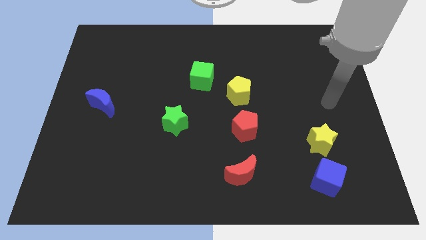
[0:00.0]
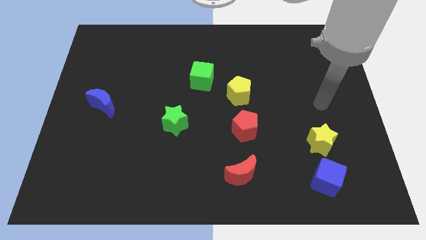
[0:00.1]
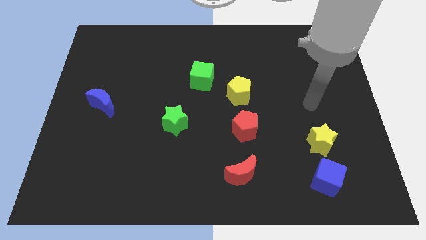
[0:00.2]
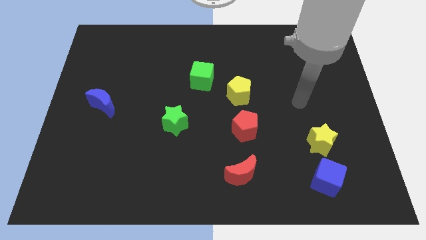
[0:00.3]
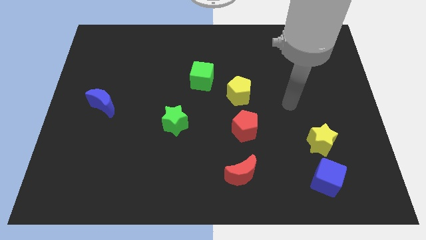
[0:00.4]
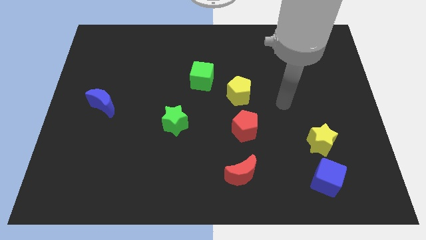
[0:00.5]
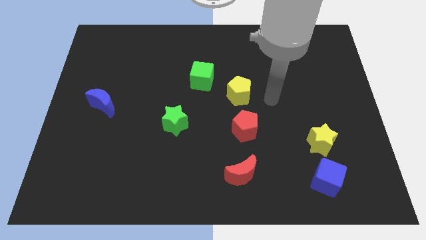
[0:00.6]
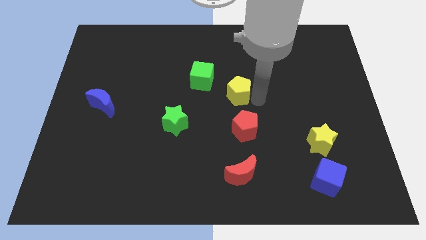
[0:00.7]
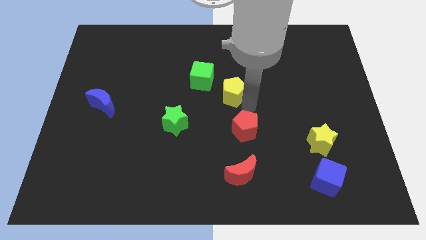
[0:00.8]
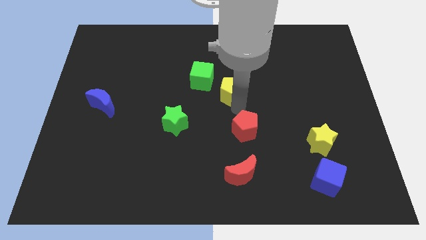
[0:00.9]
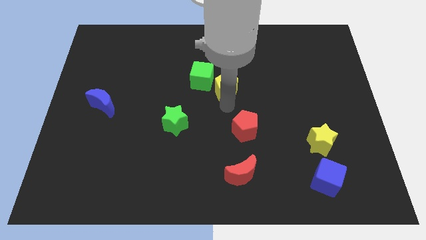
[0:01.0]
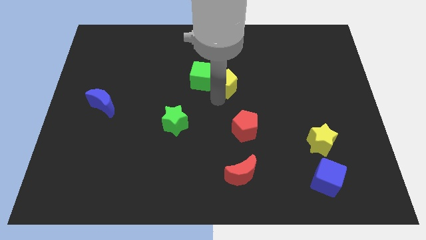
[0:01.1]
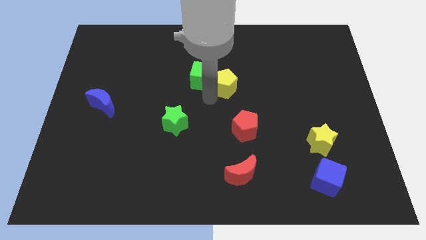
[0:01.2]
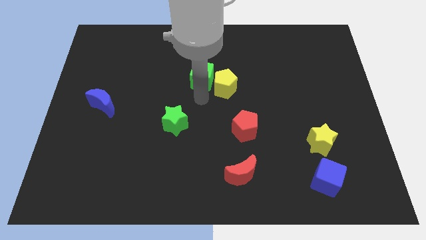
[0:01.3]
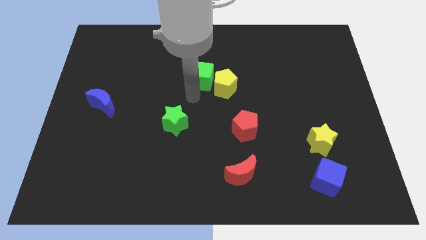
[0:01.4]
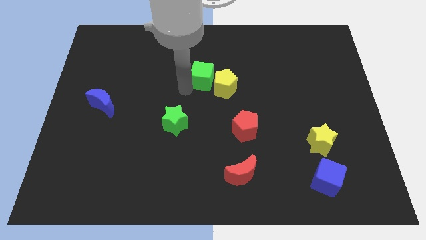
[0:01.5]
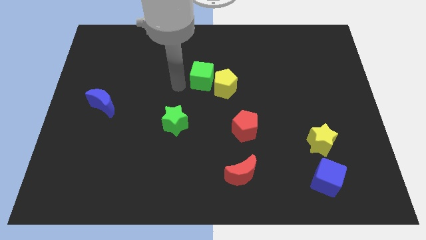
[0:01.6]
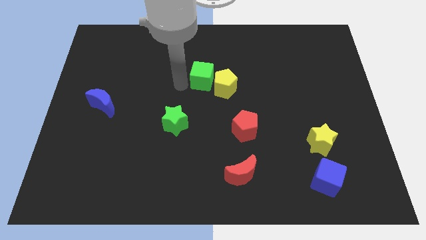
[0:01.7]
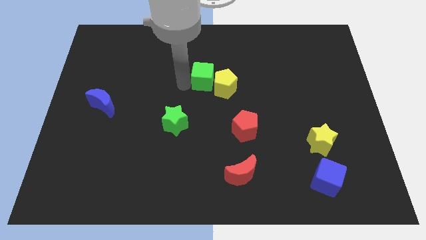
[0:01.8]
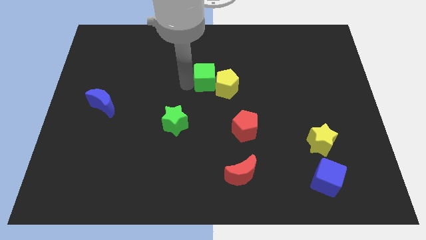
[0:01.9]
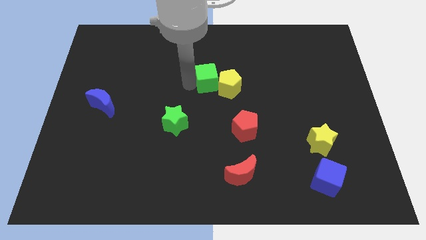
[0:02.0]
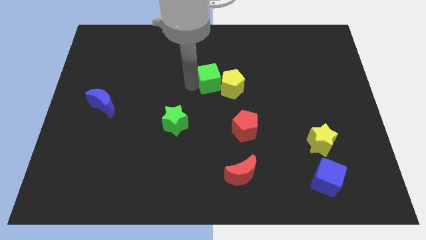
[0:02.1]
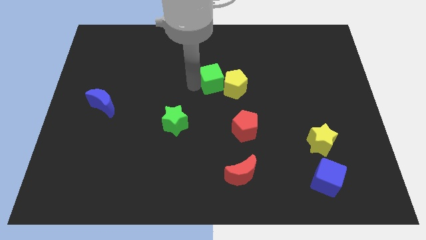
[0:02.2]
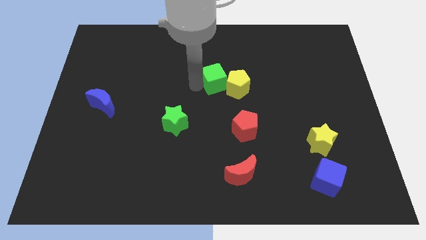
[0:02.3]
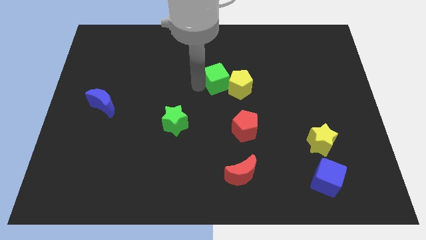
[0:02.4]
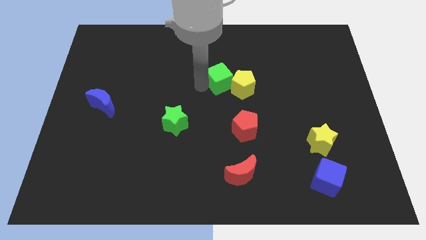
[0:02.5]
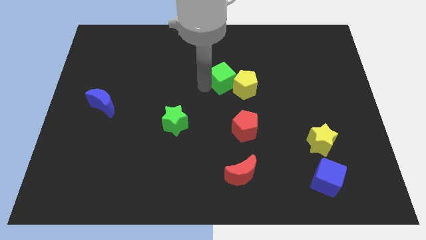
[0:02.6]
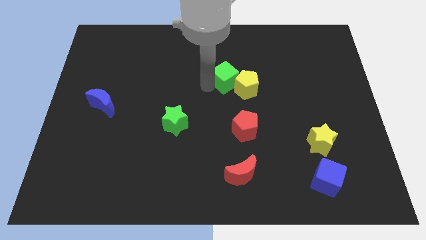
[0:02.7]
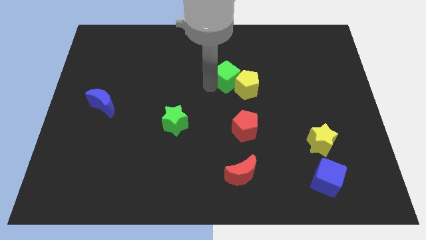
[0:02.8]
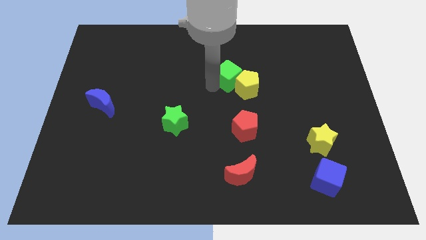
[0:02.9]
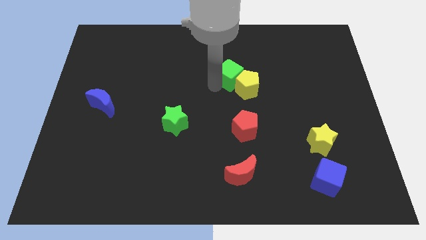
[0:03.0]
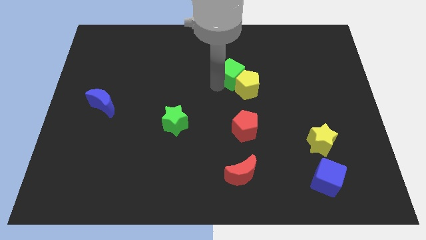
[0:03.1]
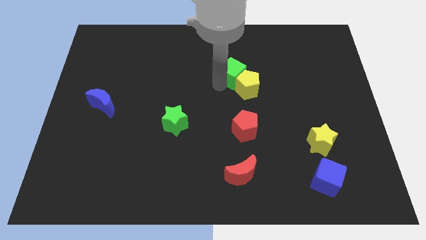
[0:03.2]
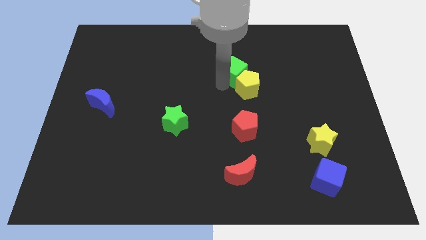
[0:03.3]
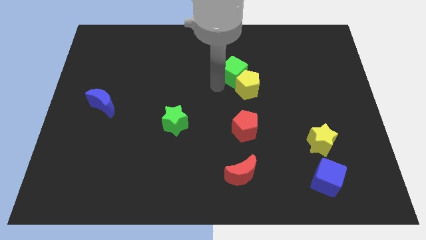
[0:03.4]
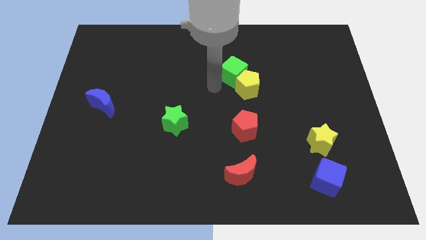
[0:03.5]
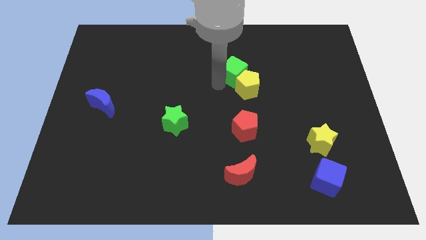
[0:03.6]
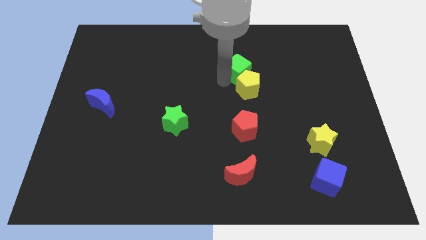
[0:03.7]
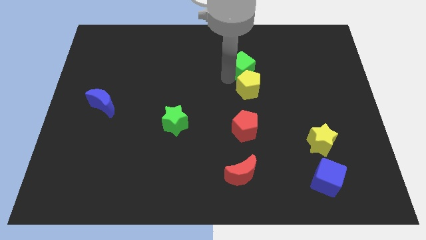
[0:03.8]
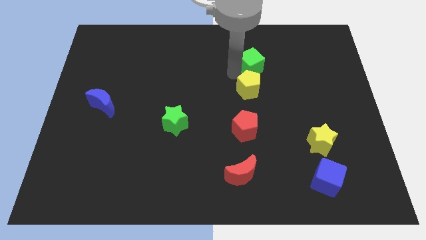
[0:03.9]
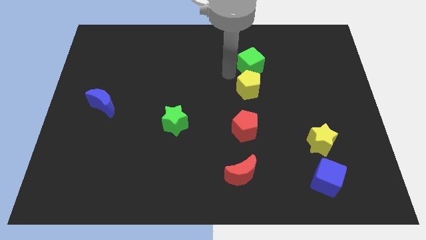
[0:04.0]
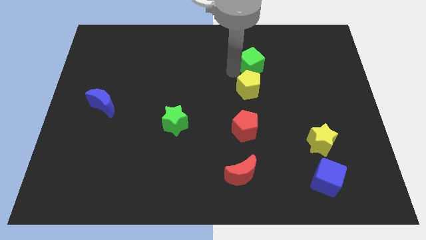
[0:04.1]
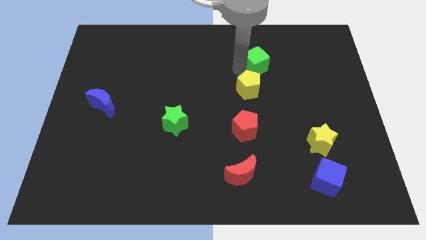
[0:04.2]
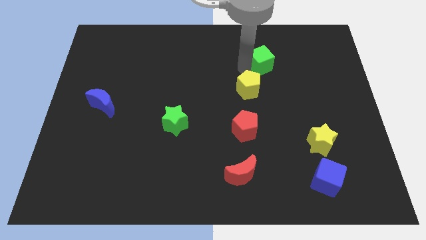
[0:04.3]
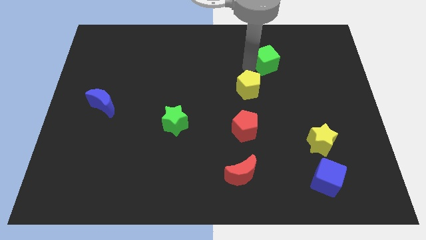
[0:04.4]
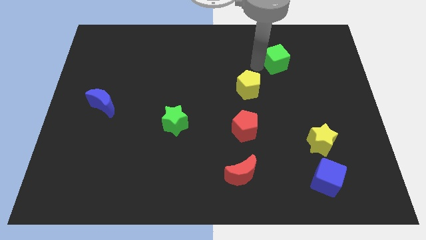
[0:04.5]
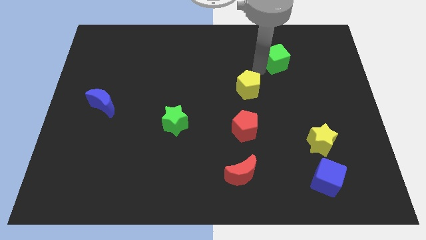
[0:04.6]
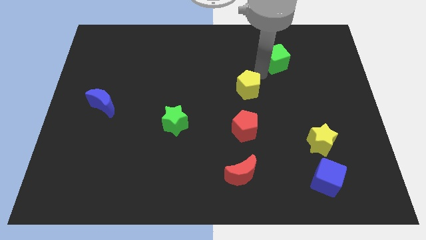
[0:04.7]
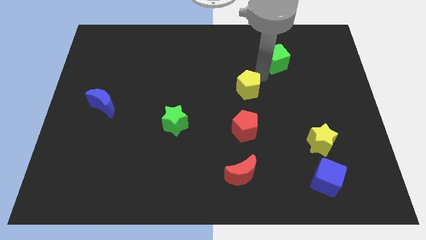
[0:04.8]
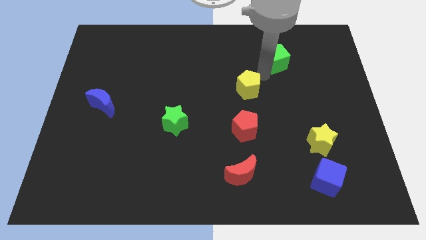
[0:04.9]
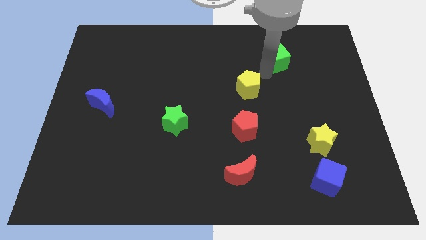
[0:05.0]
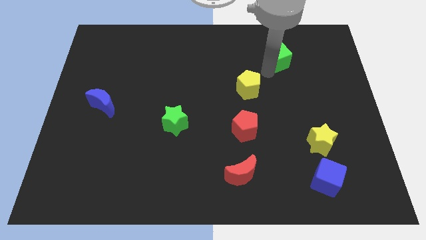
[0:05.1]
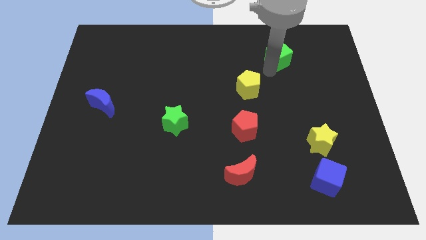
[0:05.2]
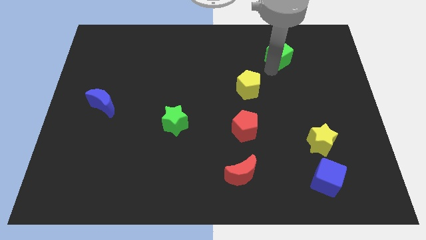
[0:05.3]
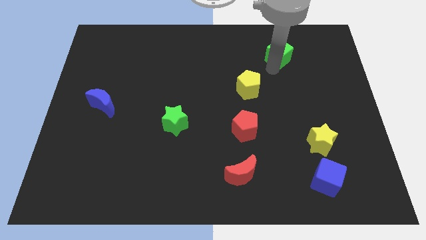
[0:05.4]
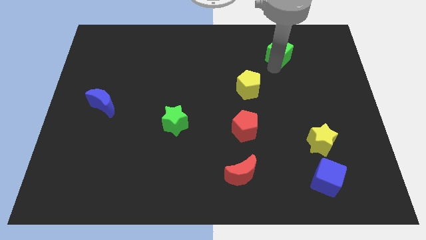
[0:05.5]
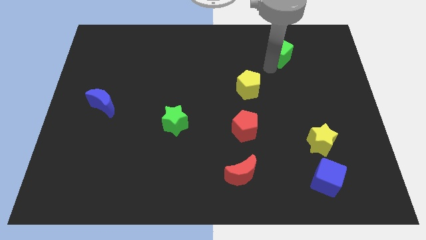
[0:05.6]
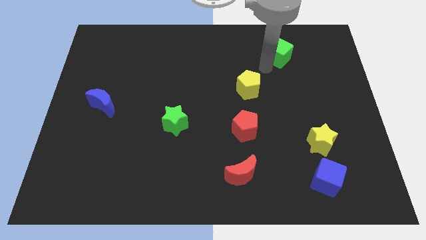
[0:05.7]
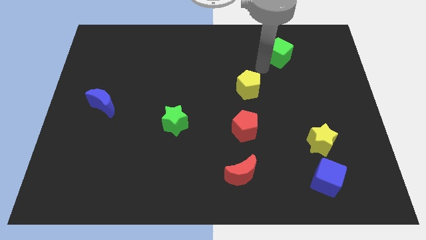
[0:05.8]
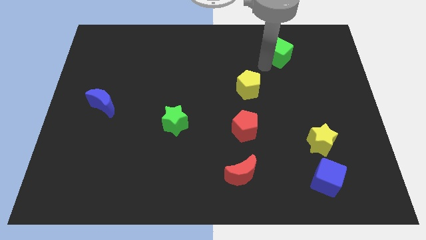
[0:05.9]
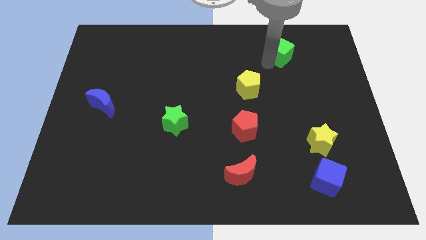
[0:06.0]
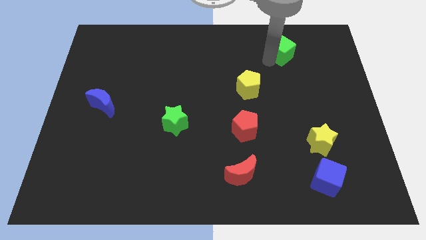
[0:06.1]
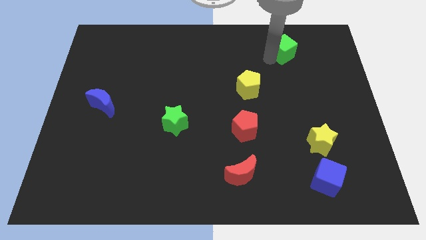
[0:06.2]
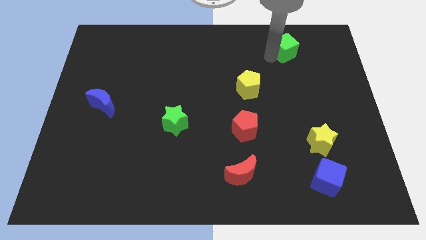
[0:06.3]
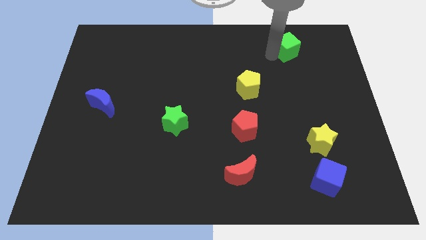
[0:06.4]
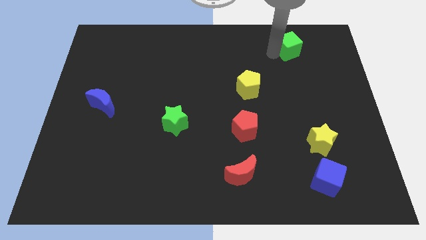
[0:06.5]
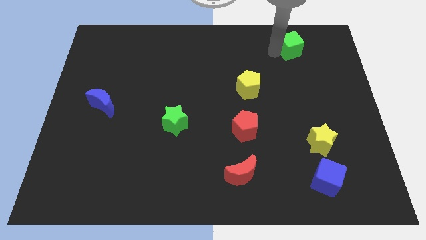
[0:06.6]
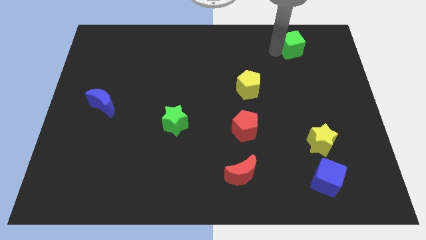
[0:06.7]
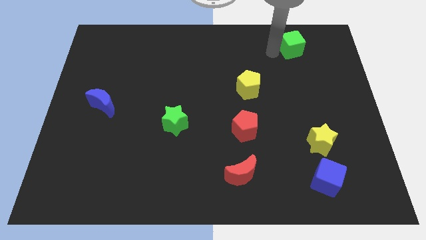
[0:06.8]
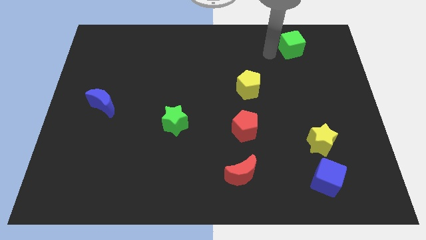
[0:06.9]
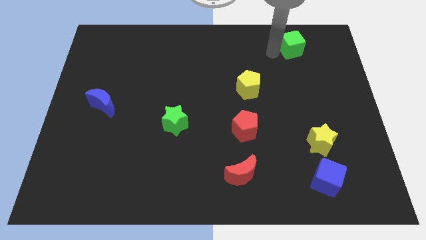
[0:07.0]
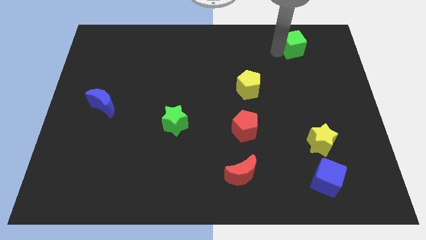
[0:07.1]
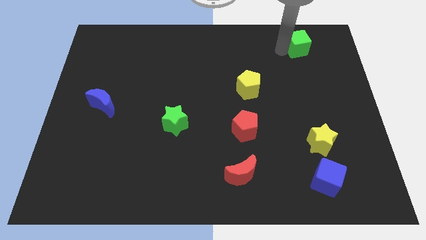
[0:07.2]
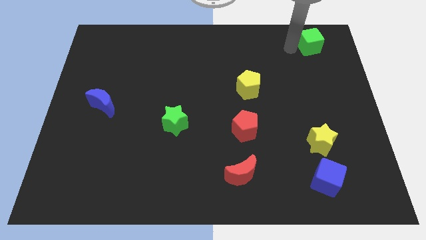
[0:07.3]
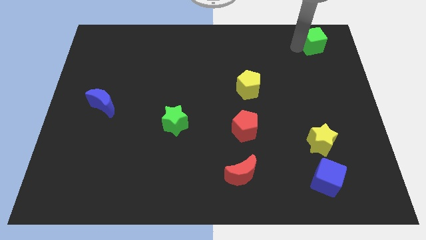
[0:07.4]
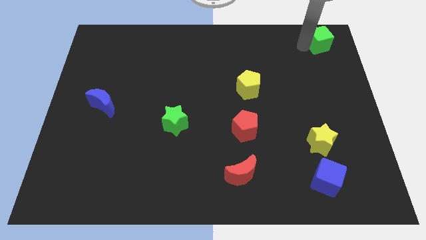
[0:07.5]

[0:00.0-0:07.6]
slide the green cube to the top right
